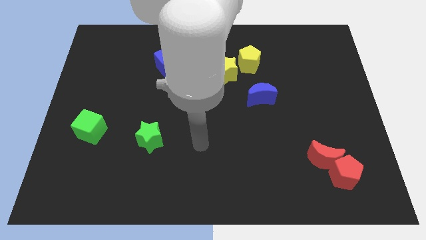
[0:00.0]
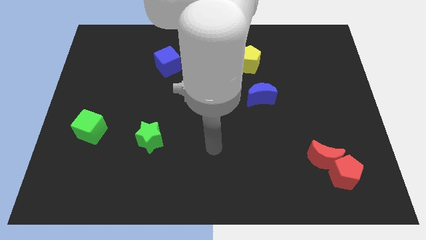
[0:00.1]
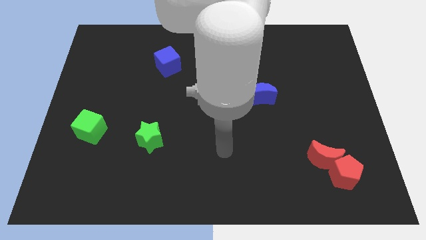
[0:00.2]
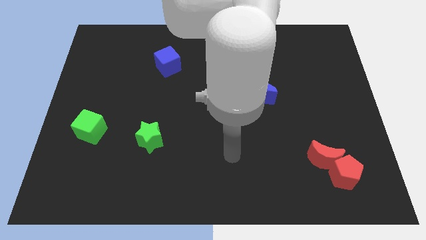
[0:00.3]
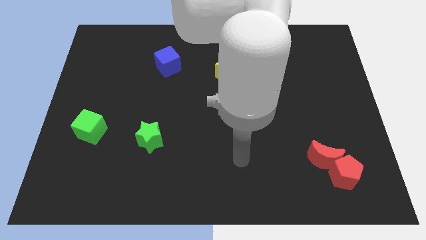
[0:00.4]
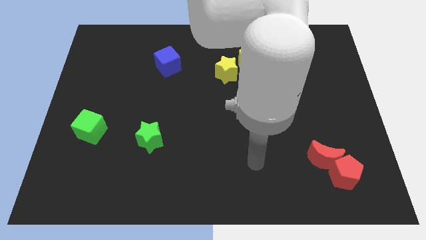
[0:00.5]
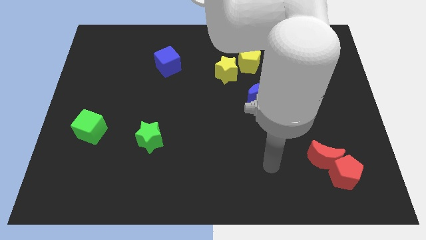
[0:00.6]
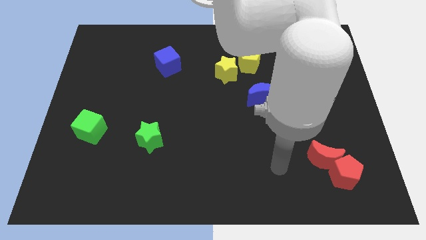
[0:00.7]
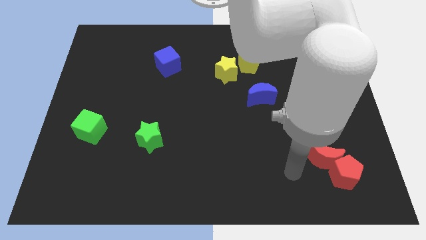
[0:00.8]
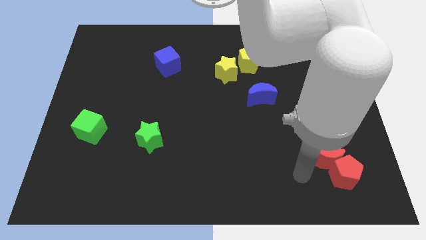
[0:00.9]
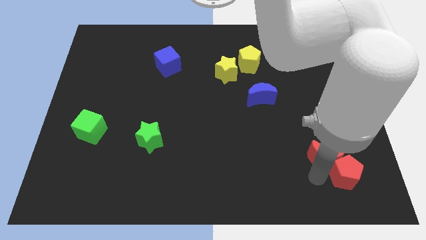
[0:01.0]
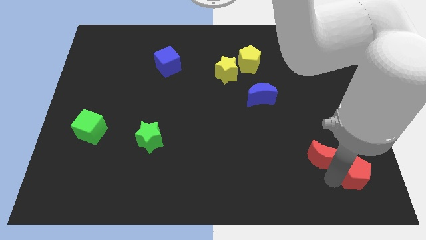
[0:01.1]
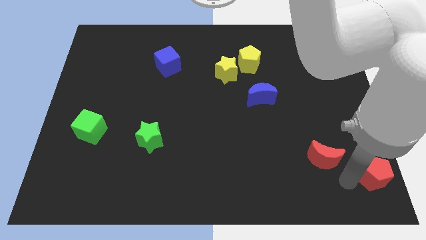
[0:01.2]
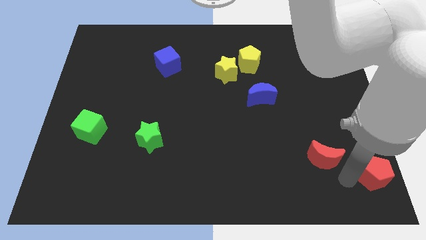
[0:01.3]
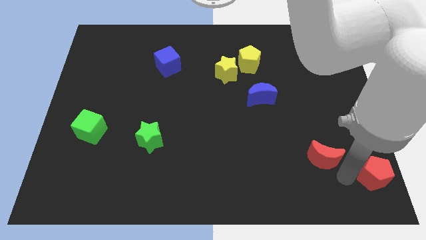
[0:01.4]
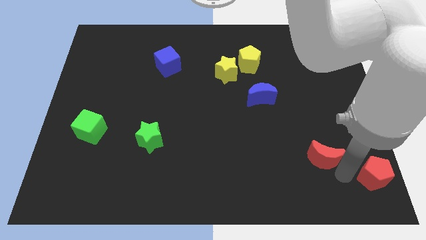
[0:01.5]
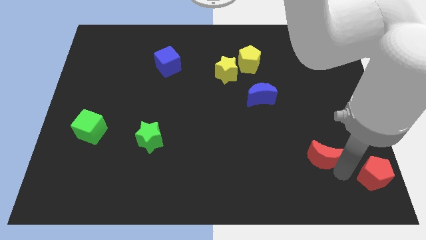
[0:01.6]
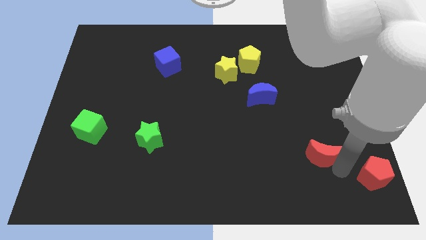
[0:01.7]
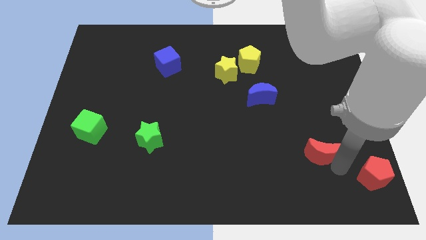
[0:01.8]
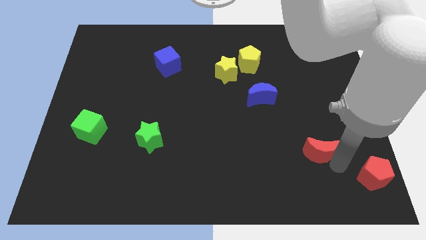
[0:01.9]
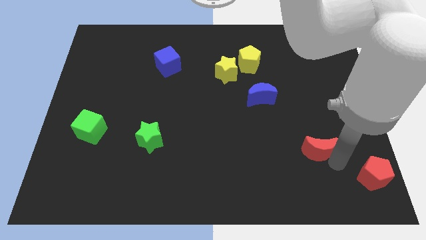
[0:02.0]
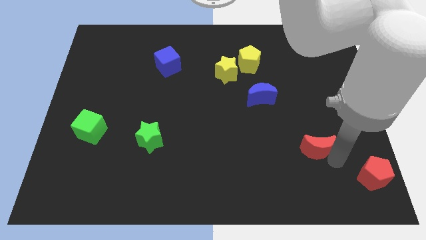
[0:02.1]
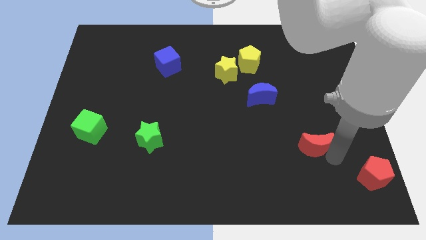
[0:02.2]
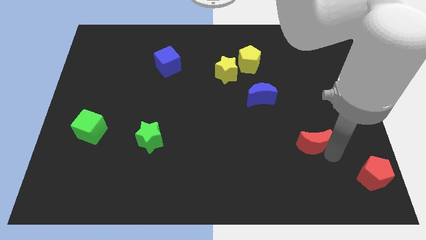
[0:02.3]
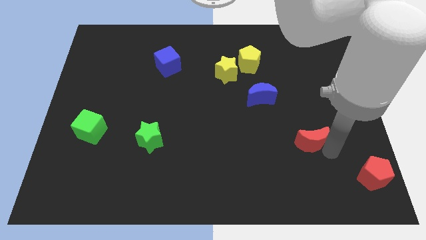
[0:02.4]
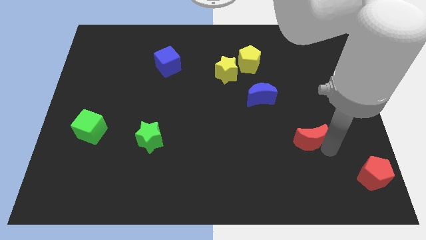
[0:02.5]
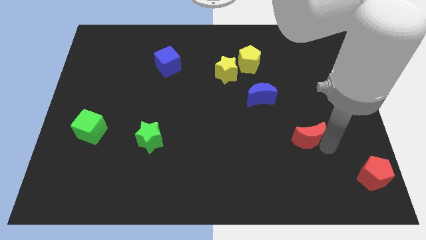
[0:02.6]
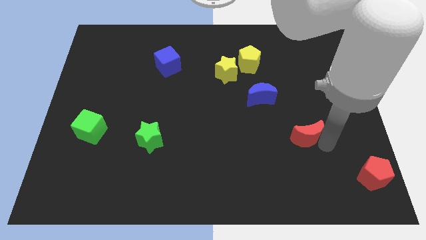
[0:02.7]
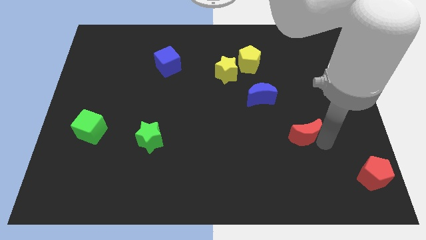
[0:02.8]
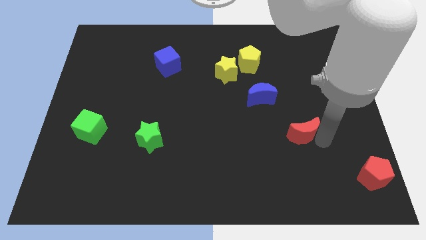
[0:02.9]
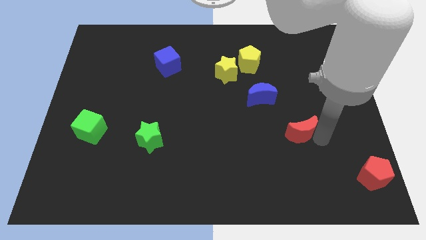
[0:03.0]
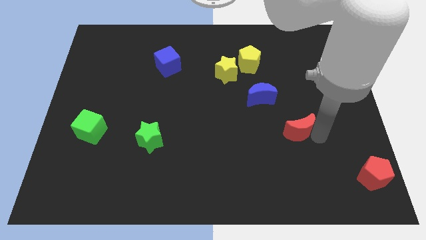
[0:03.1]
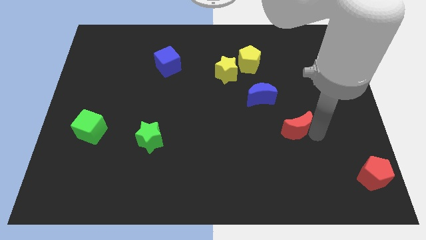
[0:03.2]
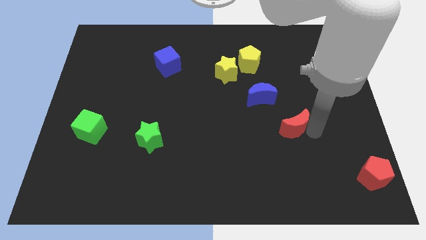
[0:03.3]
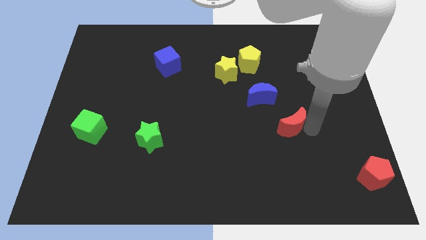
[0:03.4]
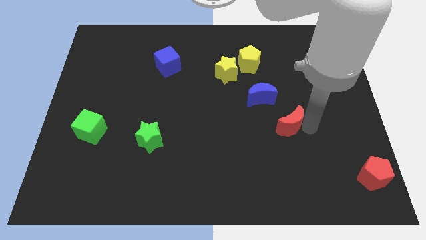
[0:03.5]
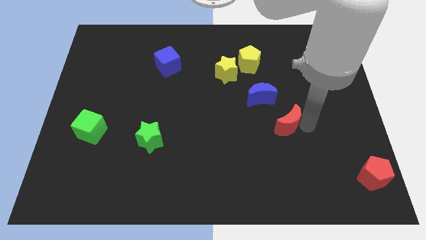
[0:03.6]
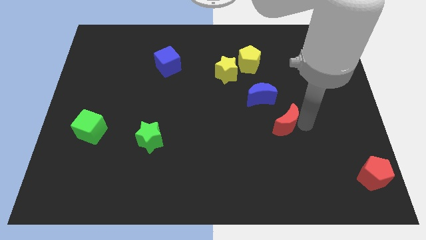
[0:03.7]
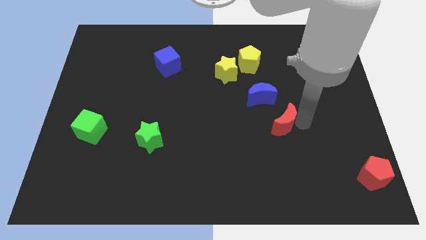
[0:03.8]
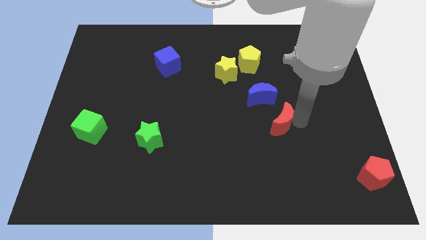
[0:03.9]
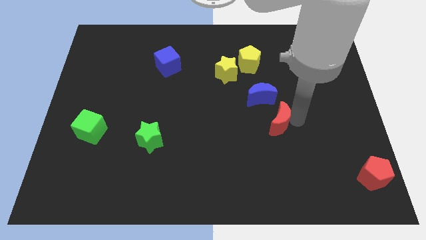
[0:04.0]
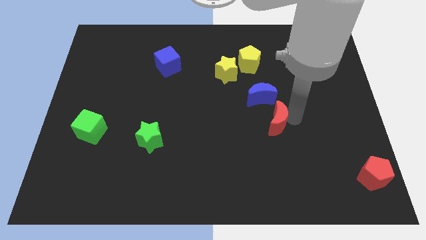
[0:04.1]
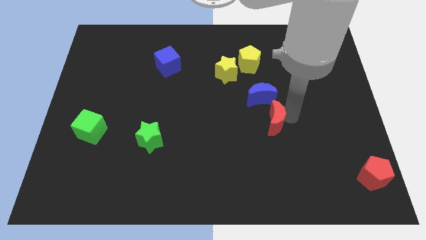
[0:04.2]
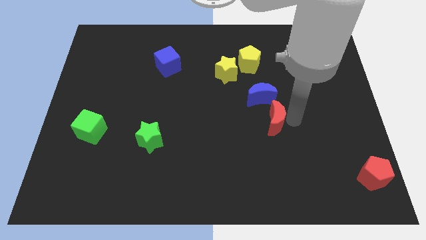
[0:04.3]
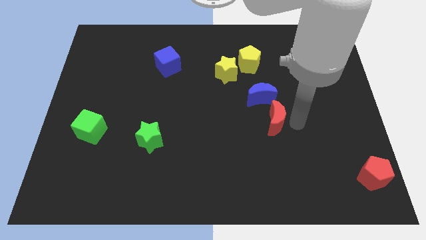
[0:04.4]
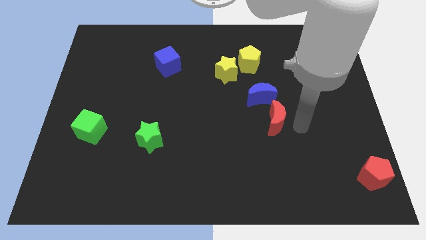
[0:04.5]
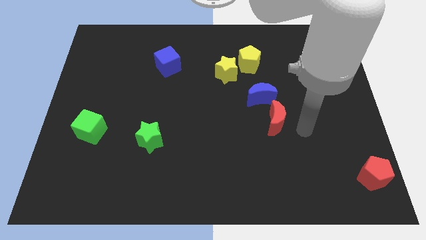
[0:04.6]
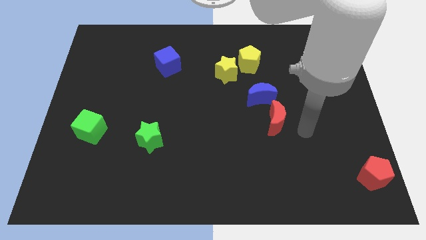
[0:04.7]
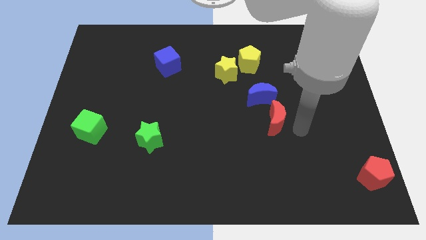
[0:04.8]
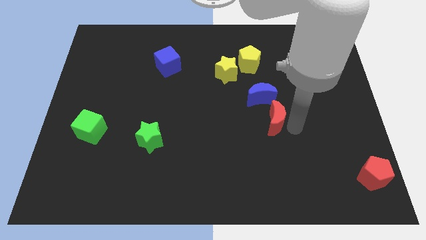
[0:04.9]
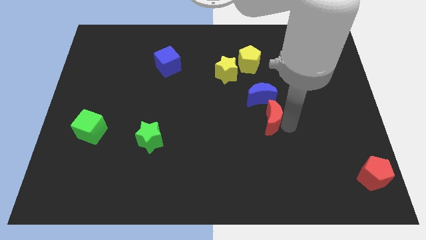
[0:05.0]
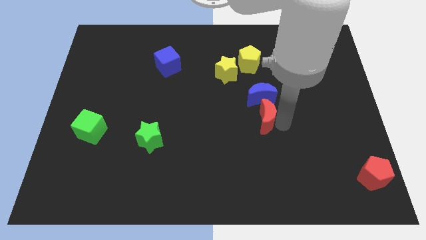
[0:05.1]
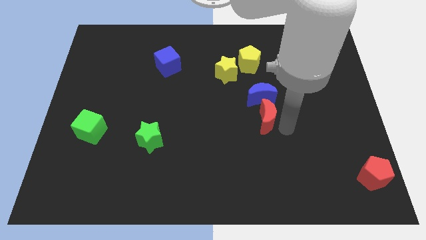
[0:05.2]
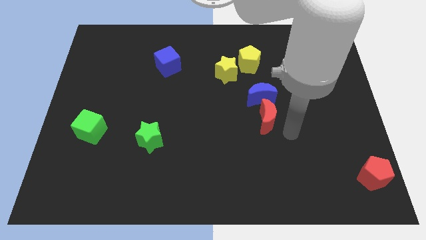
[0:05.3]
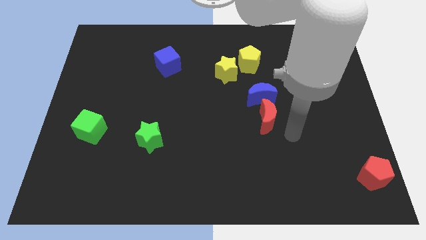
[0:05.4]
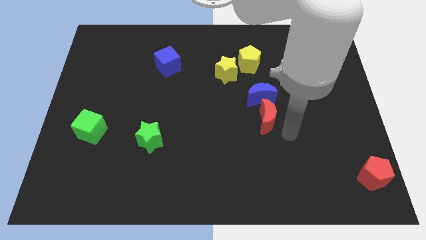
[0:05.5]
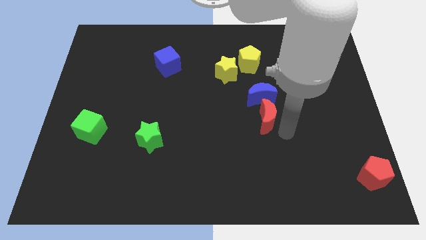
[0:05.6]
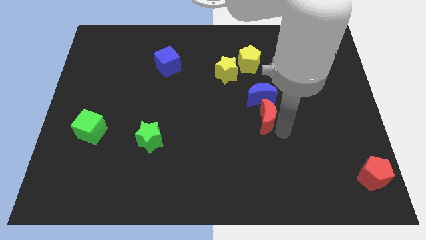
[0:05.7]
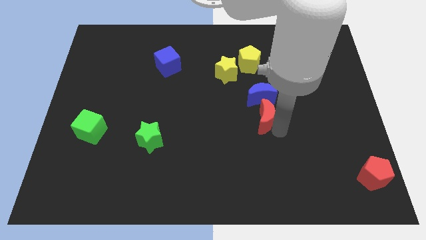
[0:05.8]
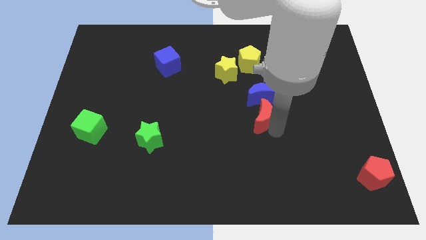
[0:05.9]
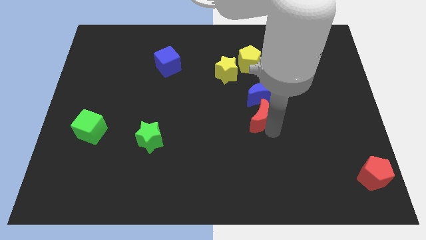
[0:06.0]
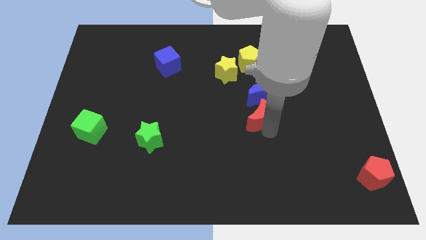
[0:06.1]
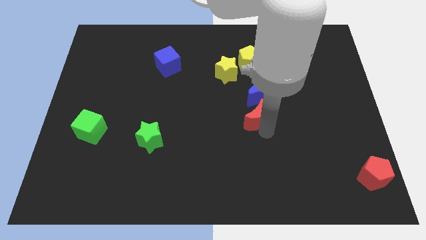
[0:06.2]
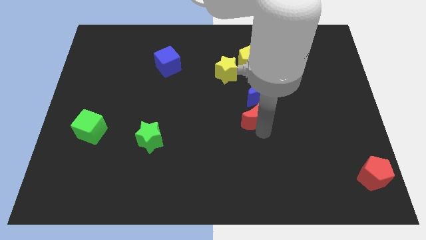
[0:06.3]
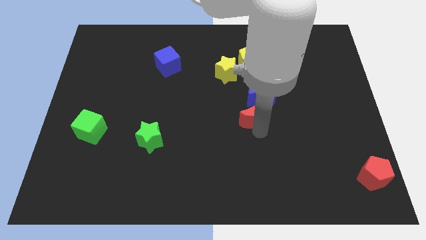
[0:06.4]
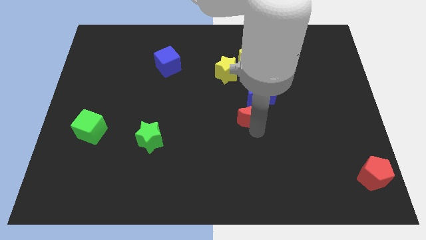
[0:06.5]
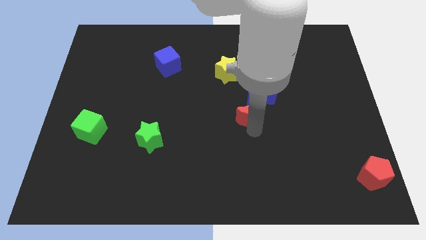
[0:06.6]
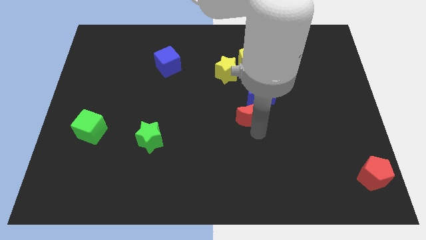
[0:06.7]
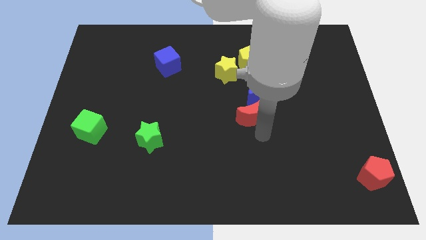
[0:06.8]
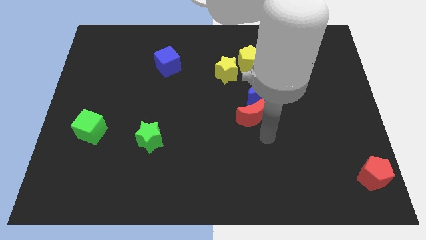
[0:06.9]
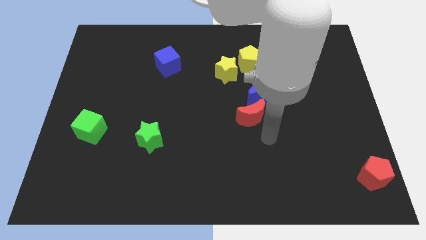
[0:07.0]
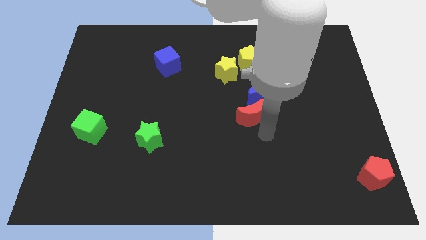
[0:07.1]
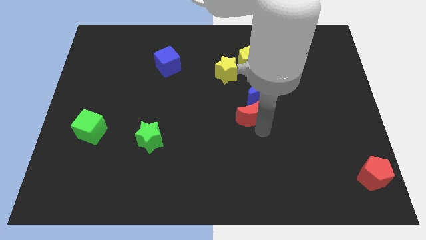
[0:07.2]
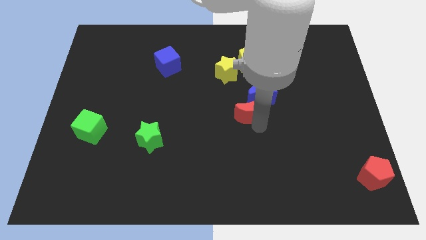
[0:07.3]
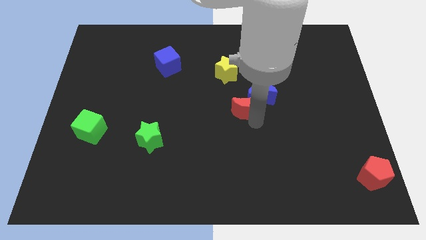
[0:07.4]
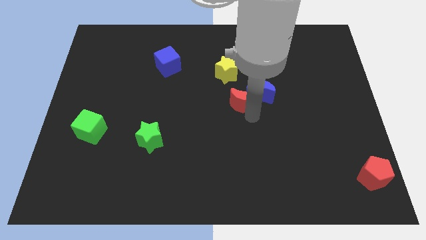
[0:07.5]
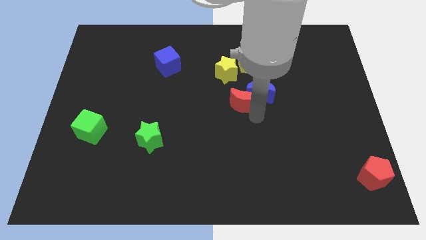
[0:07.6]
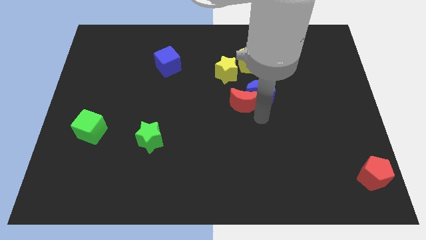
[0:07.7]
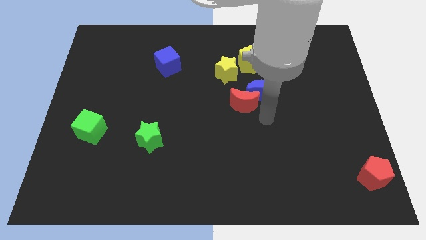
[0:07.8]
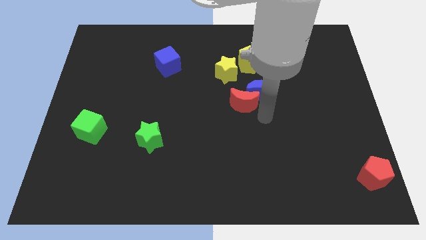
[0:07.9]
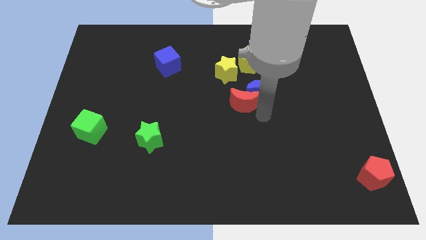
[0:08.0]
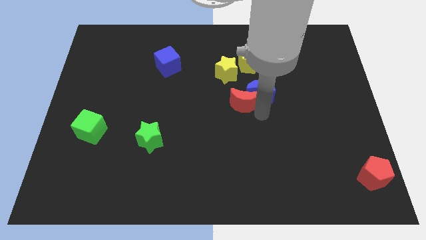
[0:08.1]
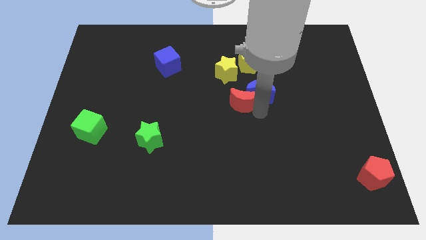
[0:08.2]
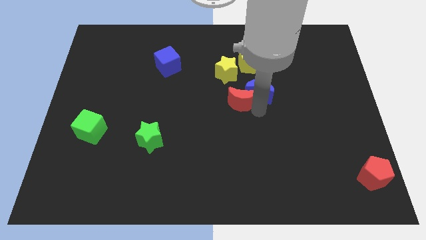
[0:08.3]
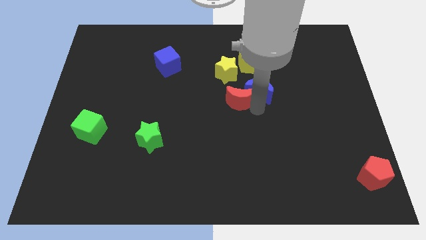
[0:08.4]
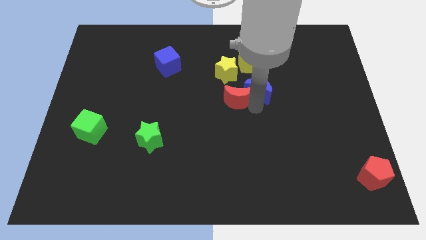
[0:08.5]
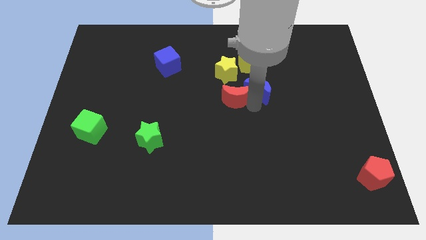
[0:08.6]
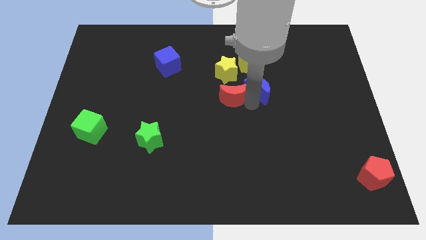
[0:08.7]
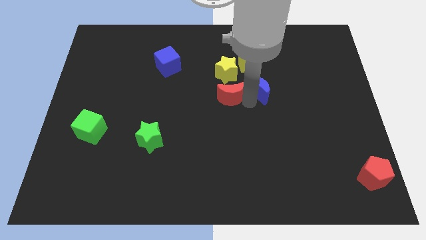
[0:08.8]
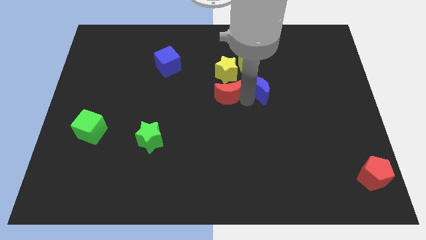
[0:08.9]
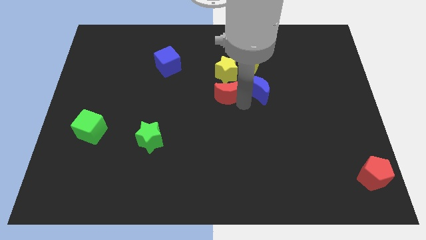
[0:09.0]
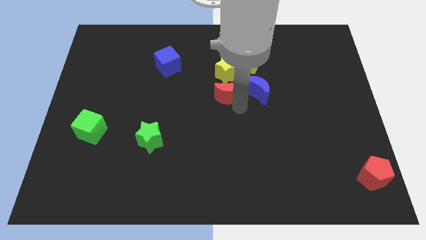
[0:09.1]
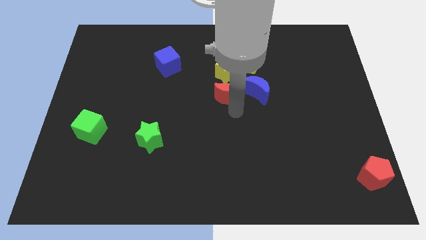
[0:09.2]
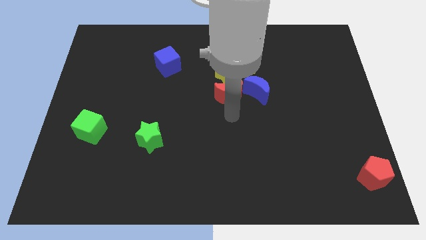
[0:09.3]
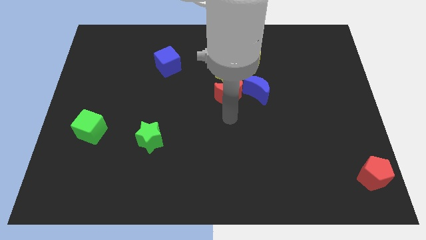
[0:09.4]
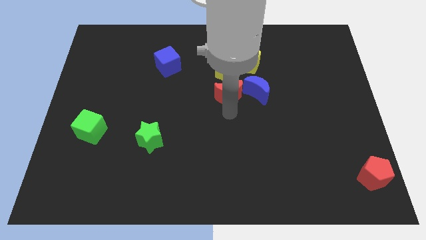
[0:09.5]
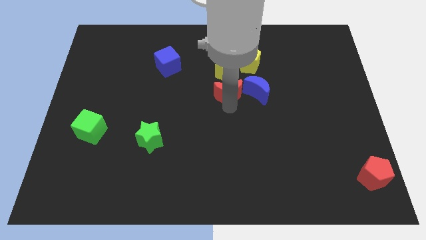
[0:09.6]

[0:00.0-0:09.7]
slide the red moon diagonally down and to the left of the yellow pentagon
